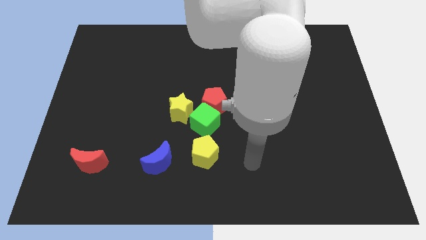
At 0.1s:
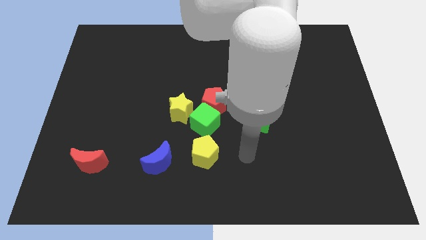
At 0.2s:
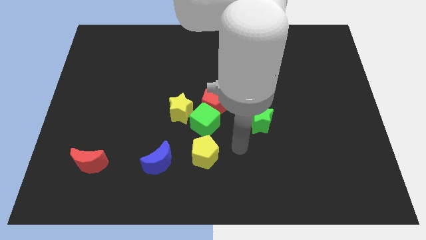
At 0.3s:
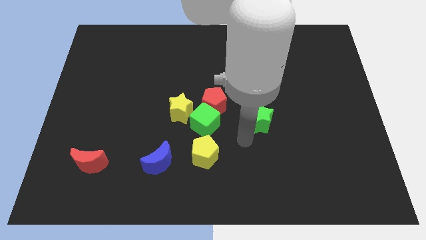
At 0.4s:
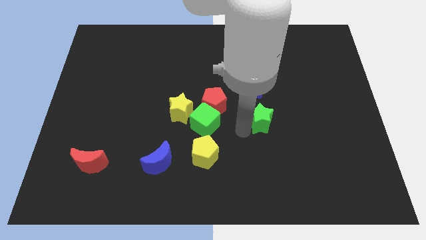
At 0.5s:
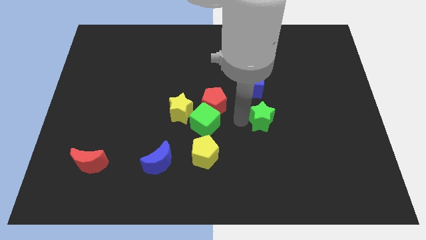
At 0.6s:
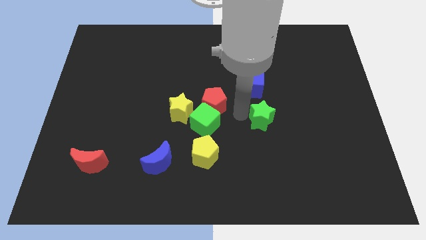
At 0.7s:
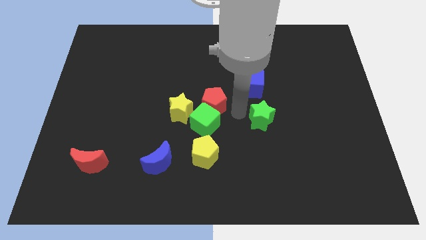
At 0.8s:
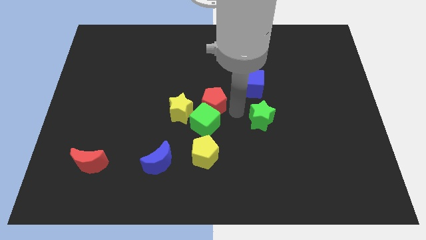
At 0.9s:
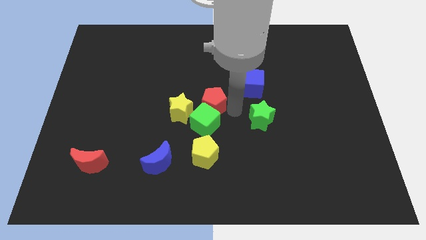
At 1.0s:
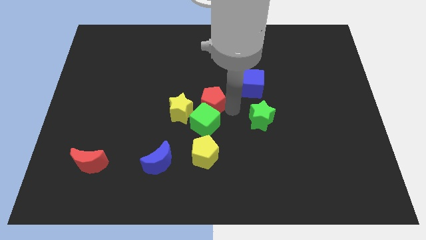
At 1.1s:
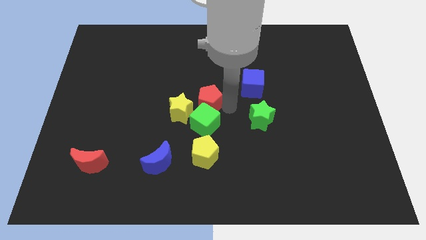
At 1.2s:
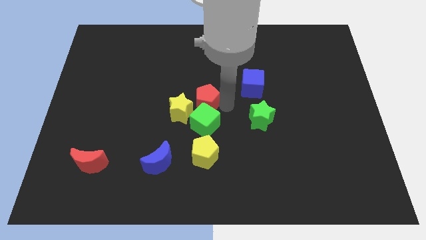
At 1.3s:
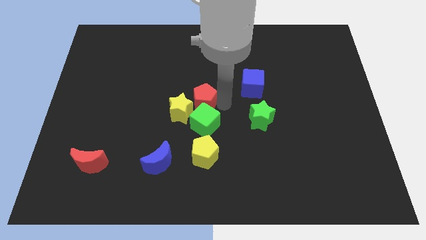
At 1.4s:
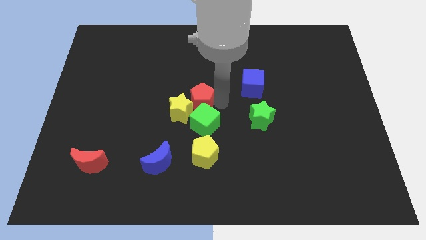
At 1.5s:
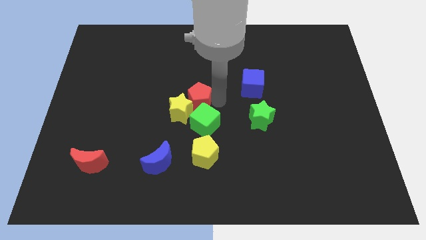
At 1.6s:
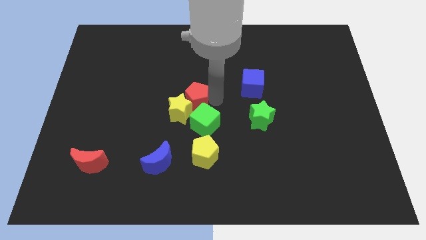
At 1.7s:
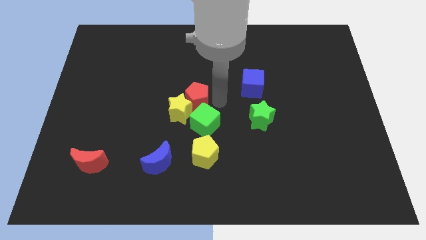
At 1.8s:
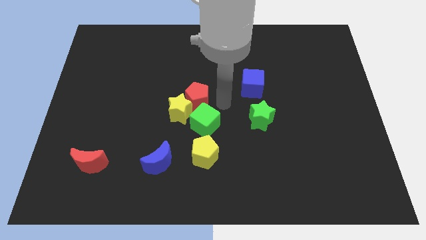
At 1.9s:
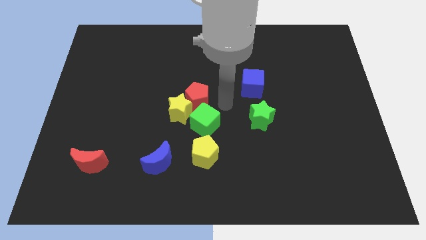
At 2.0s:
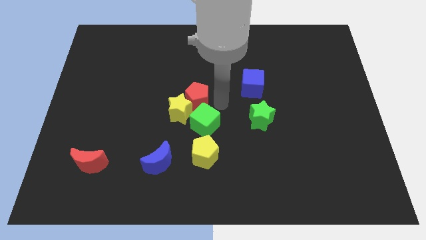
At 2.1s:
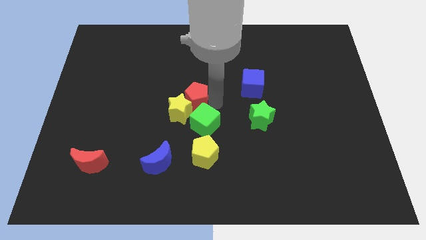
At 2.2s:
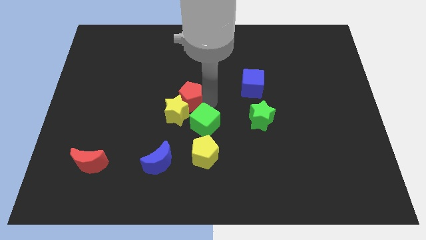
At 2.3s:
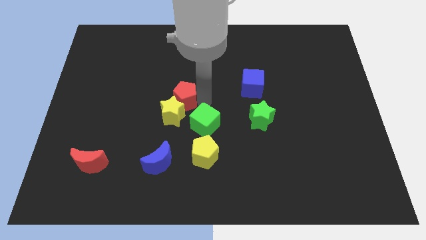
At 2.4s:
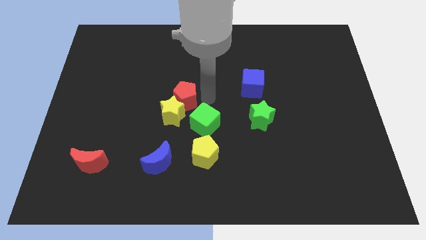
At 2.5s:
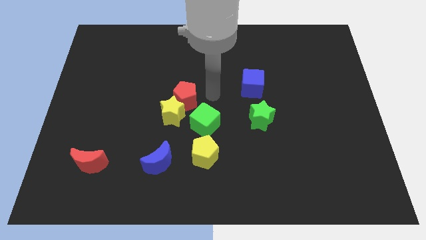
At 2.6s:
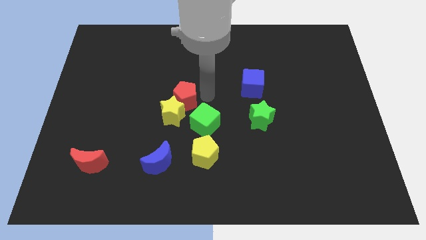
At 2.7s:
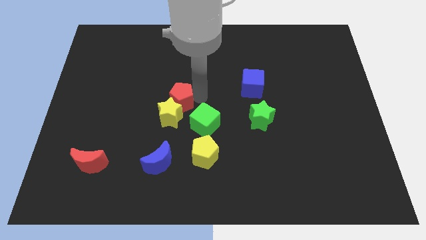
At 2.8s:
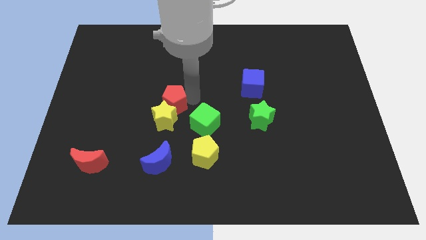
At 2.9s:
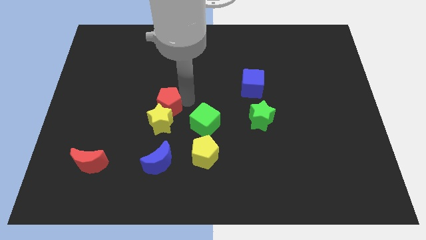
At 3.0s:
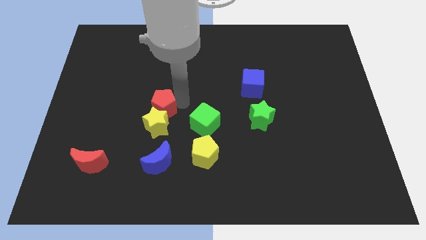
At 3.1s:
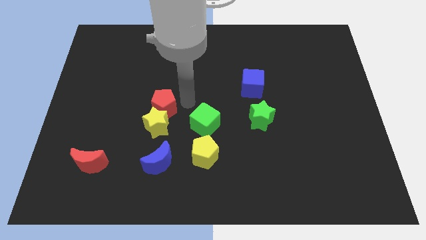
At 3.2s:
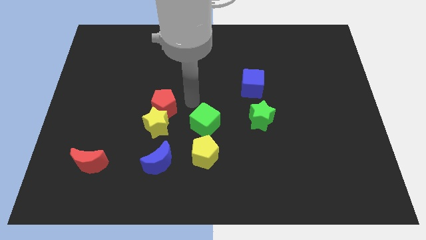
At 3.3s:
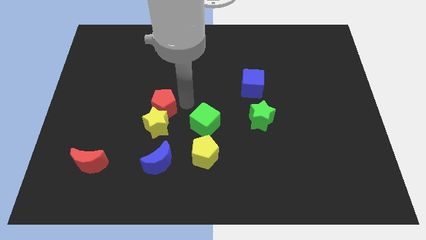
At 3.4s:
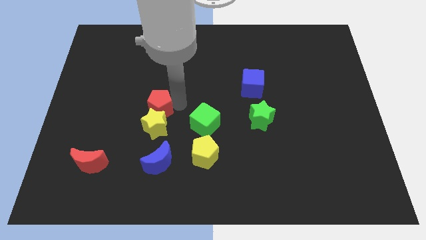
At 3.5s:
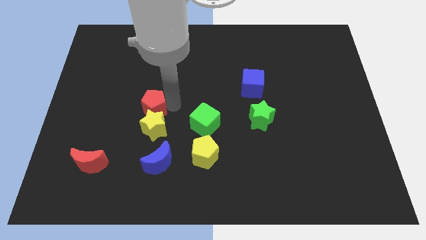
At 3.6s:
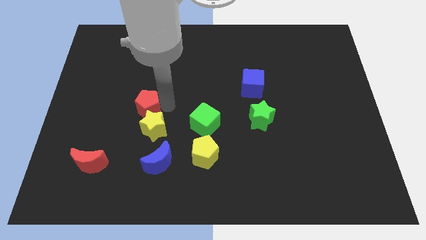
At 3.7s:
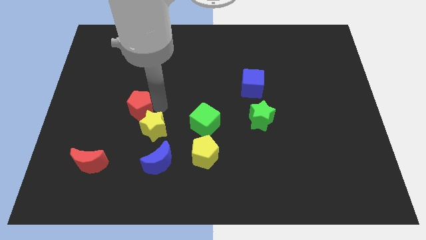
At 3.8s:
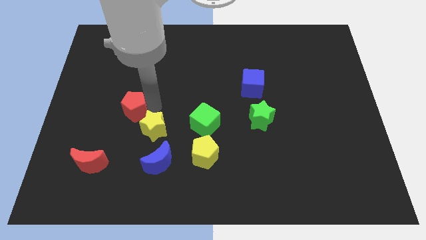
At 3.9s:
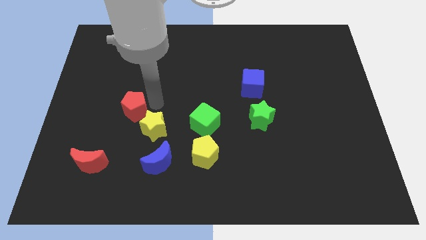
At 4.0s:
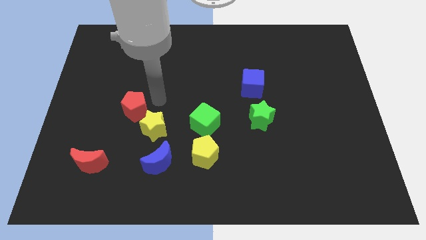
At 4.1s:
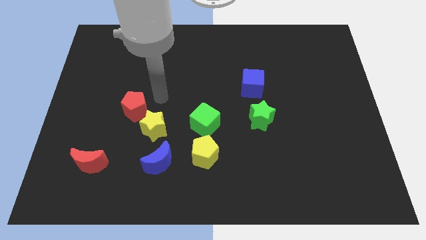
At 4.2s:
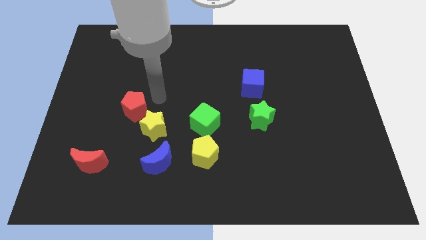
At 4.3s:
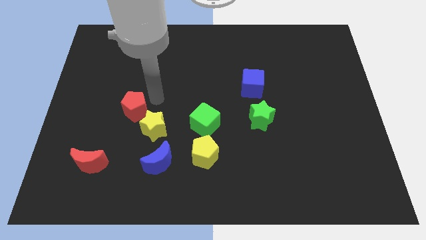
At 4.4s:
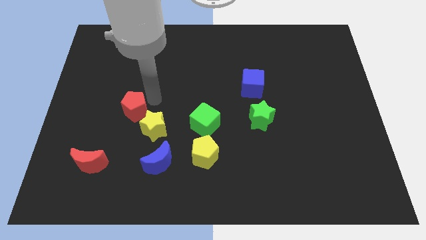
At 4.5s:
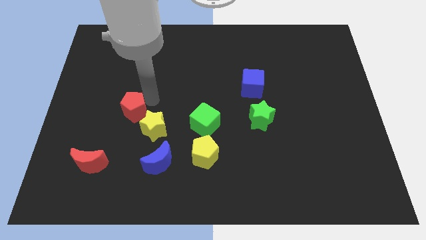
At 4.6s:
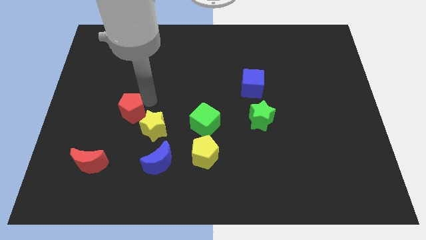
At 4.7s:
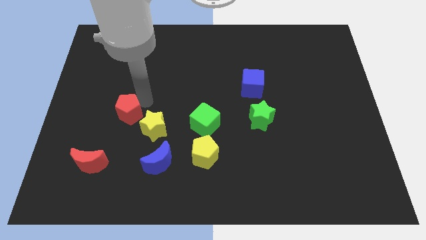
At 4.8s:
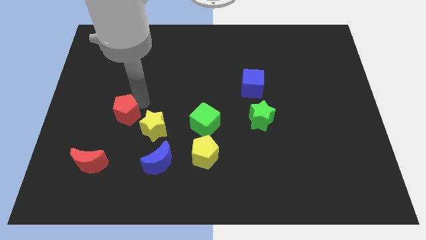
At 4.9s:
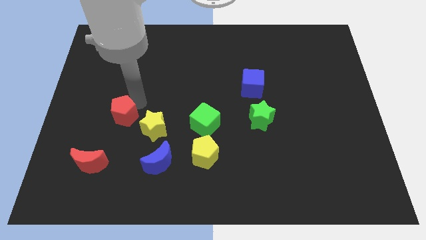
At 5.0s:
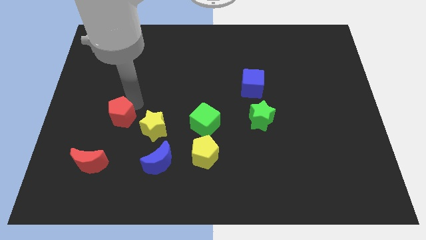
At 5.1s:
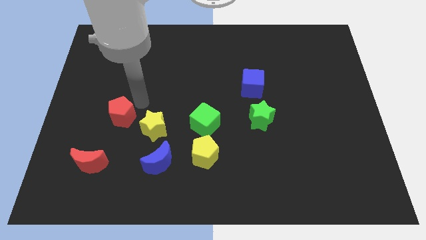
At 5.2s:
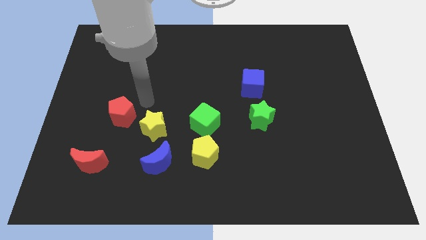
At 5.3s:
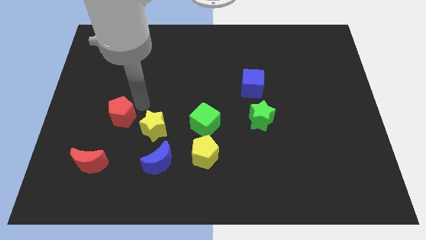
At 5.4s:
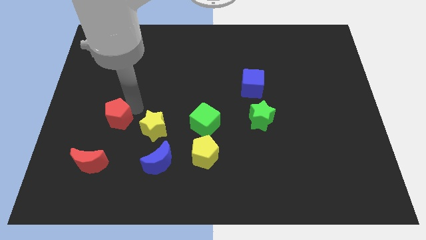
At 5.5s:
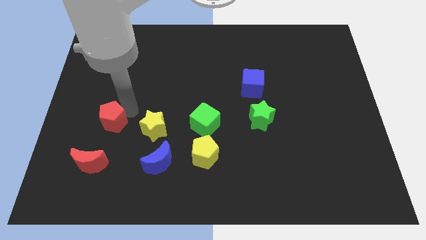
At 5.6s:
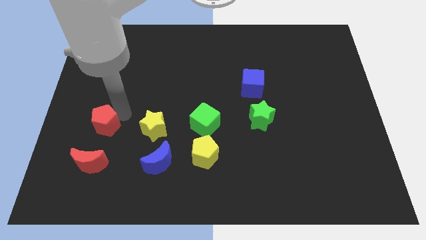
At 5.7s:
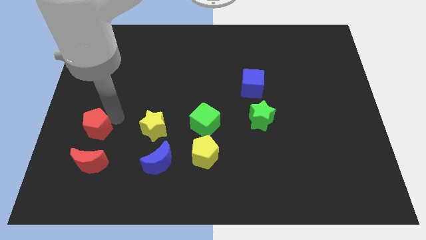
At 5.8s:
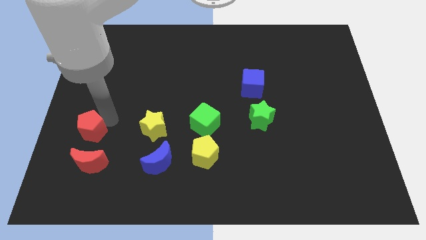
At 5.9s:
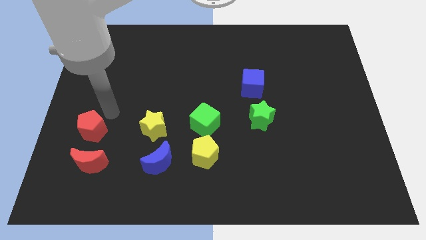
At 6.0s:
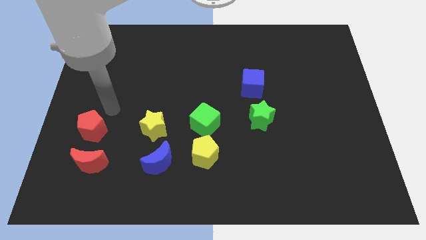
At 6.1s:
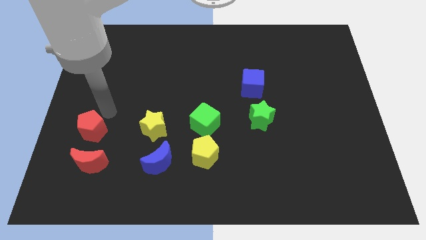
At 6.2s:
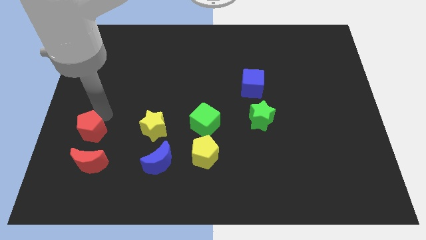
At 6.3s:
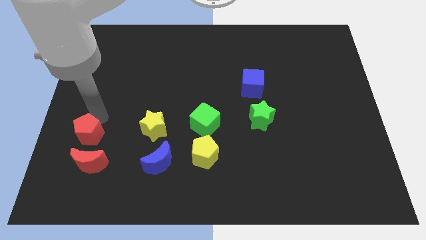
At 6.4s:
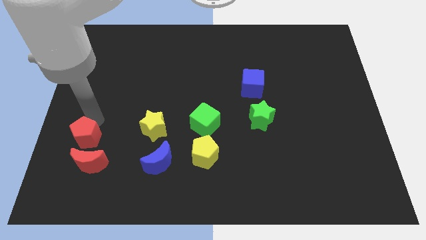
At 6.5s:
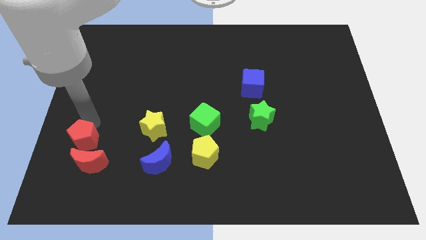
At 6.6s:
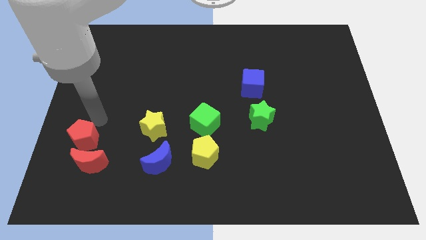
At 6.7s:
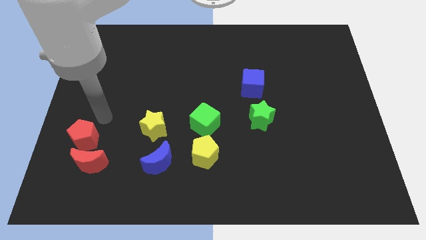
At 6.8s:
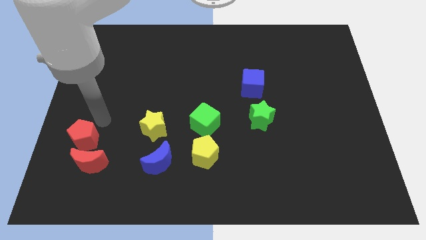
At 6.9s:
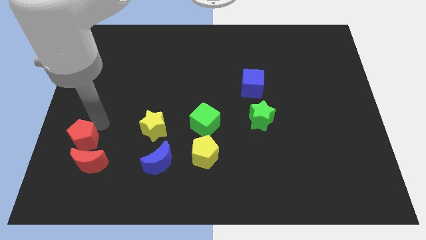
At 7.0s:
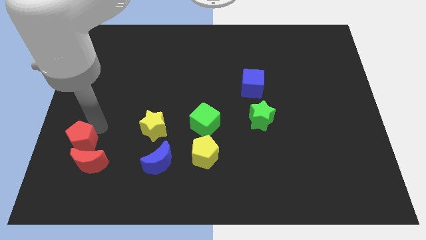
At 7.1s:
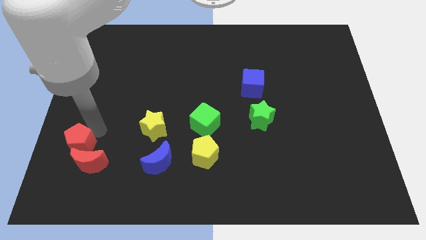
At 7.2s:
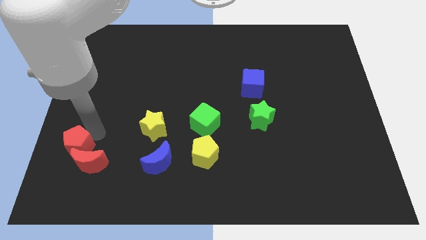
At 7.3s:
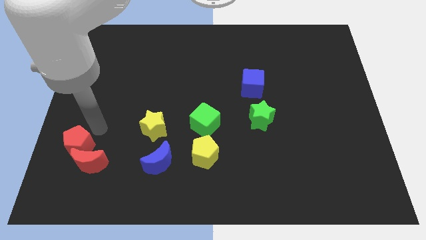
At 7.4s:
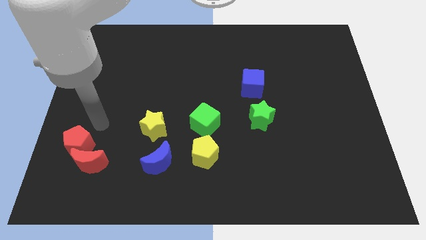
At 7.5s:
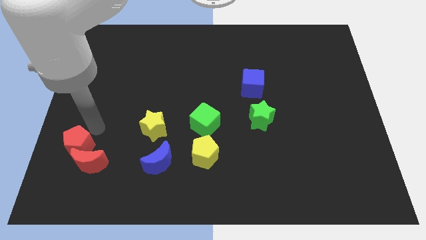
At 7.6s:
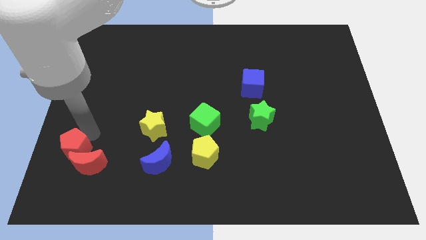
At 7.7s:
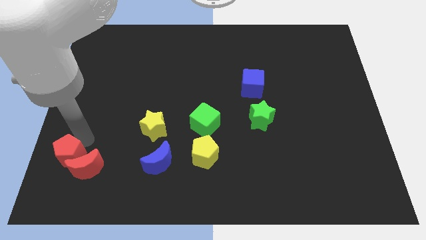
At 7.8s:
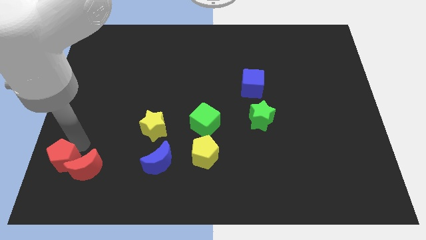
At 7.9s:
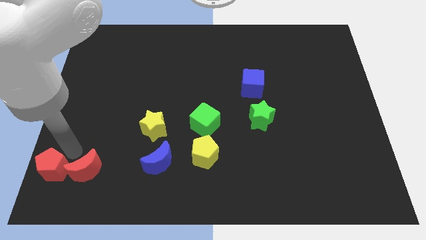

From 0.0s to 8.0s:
slide the red pentagon to the bottom left of the board
